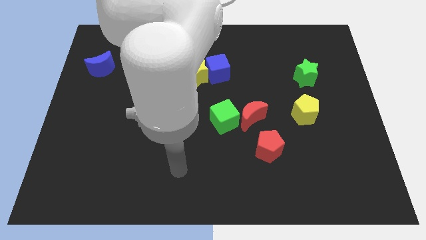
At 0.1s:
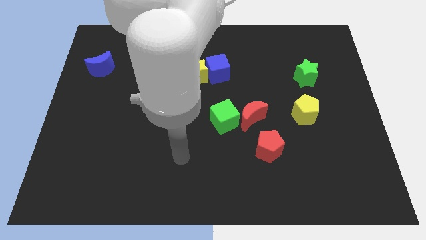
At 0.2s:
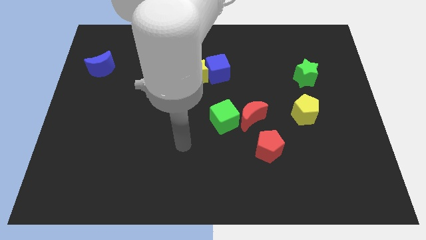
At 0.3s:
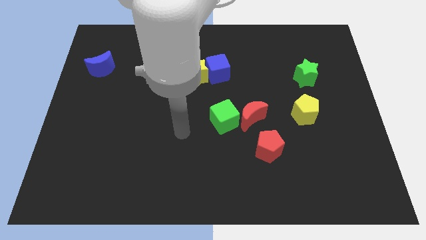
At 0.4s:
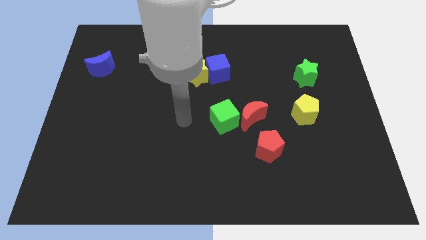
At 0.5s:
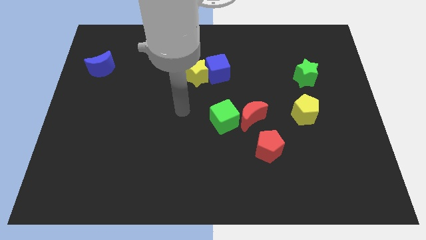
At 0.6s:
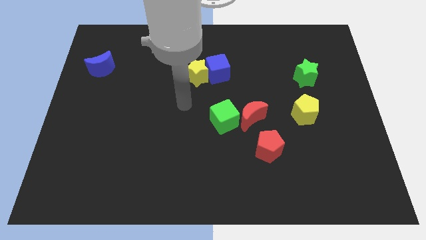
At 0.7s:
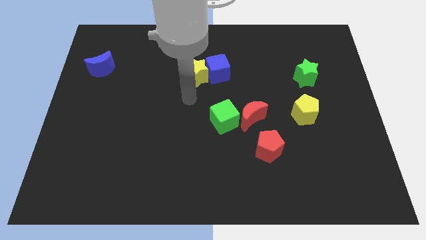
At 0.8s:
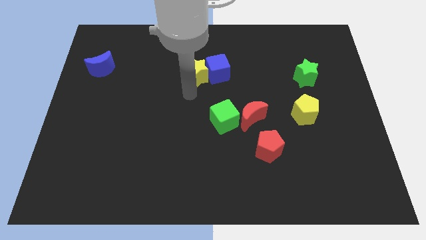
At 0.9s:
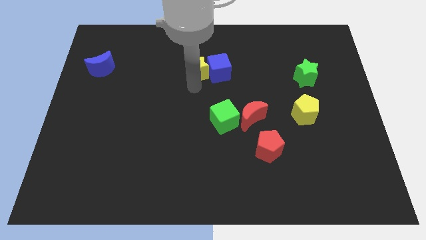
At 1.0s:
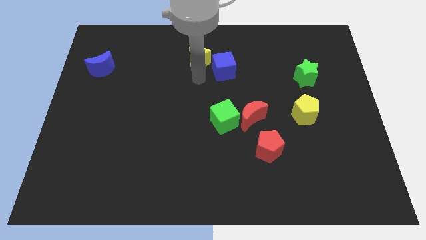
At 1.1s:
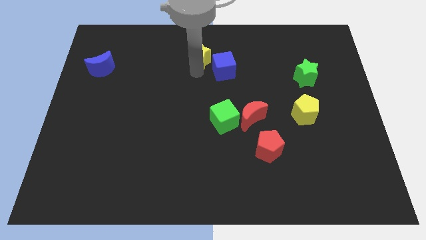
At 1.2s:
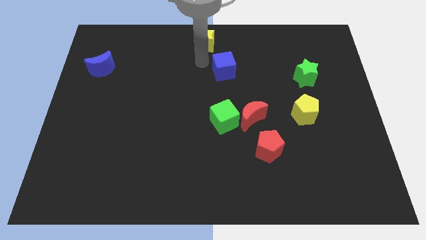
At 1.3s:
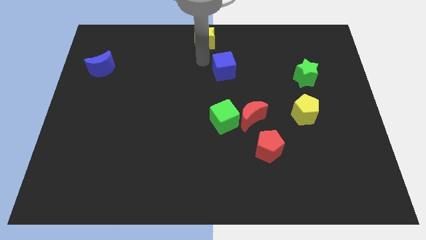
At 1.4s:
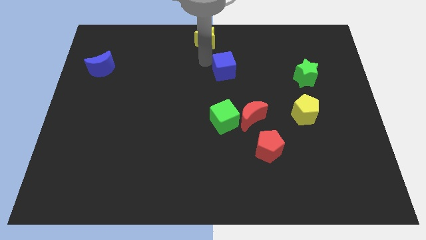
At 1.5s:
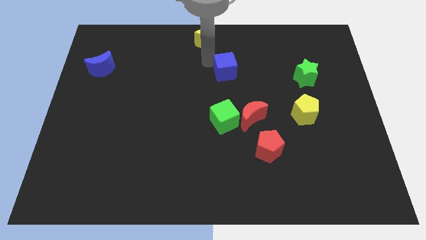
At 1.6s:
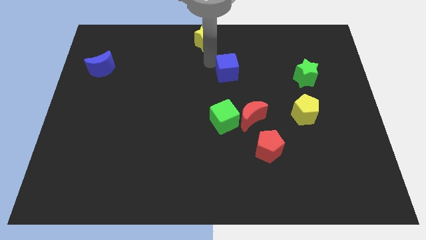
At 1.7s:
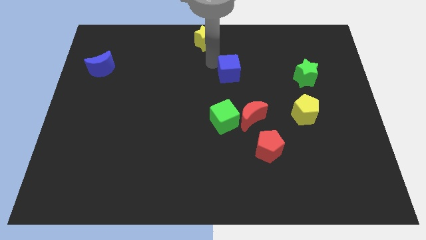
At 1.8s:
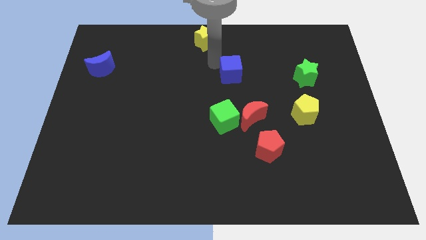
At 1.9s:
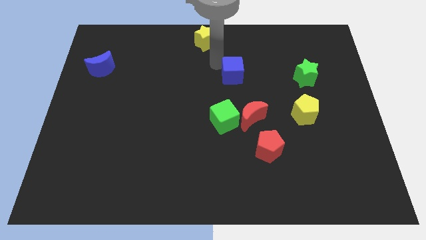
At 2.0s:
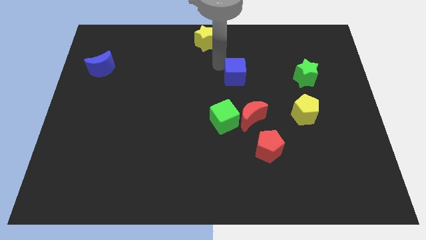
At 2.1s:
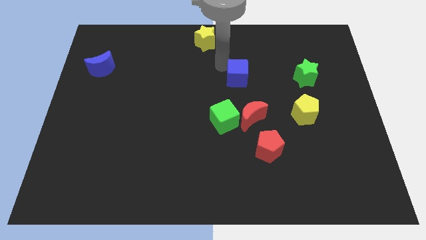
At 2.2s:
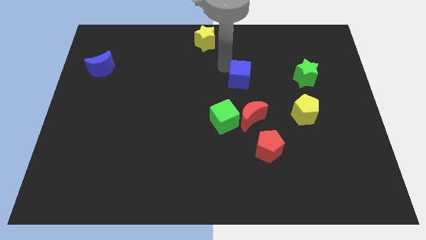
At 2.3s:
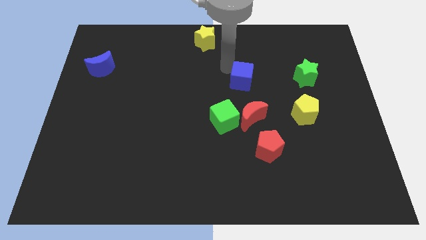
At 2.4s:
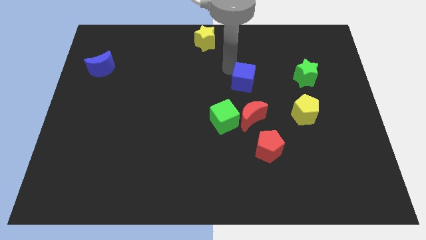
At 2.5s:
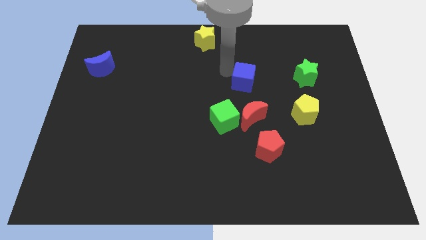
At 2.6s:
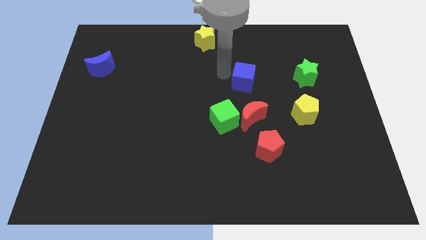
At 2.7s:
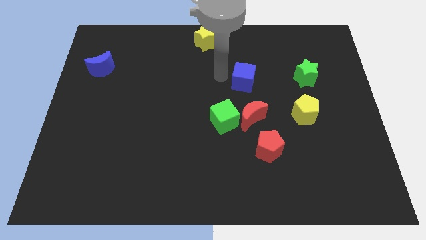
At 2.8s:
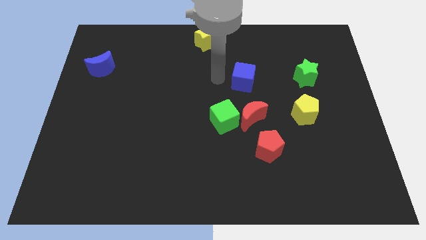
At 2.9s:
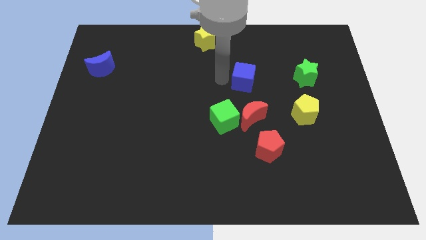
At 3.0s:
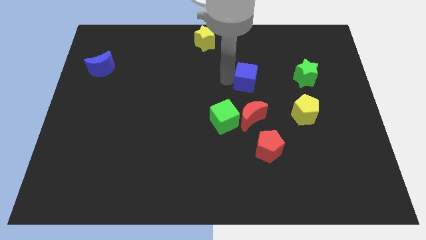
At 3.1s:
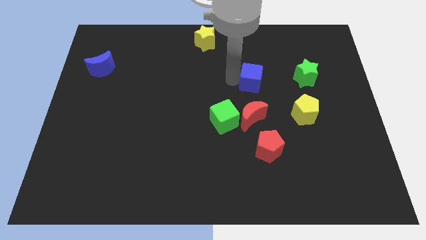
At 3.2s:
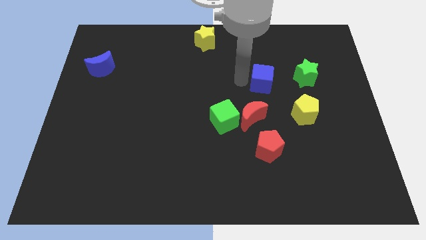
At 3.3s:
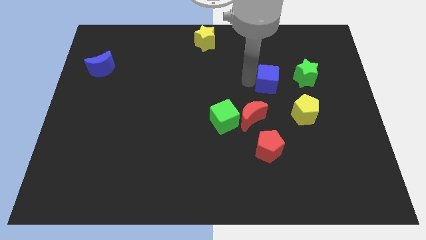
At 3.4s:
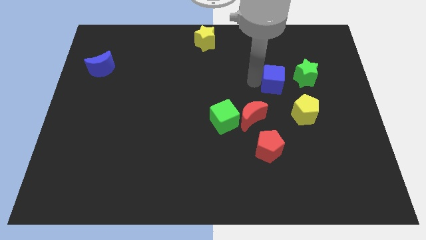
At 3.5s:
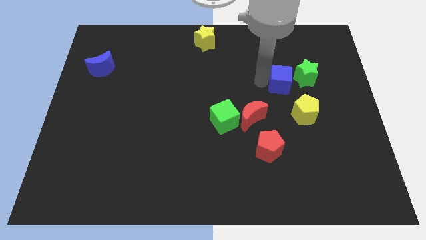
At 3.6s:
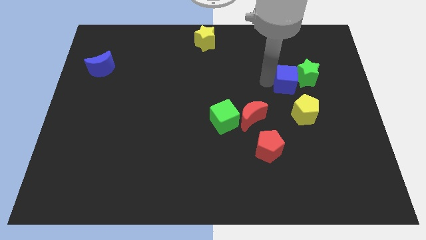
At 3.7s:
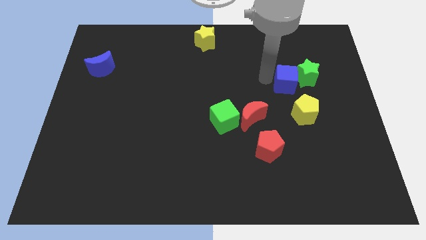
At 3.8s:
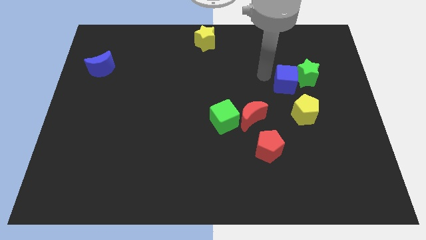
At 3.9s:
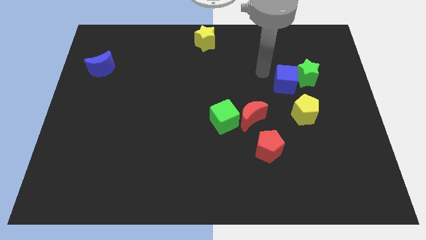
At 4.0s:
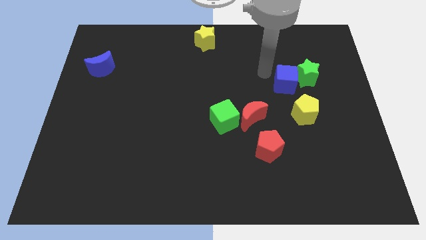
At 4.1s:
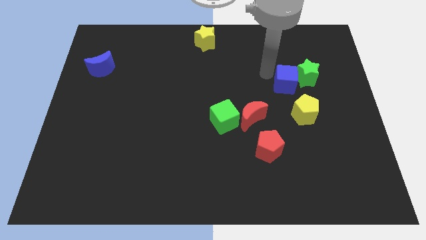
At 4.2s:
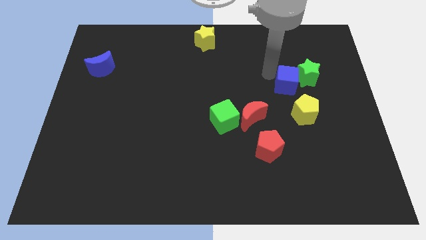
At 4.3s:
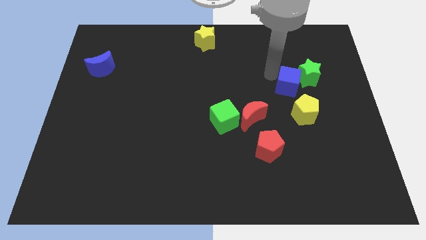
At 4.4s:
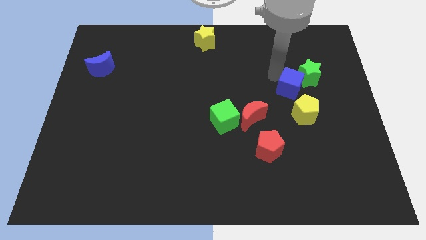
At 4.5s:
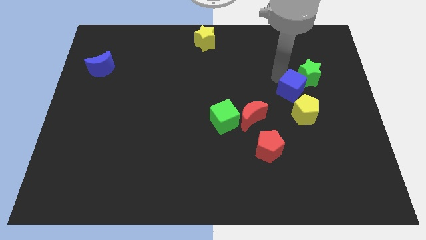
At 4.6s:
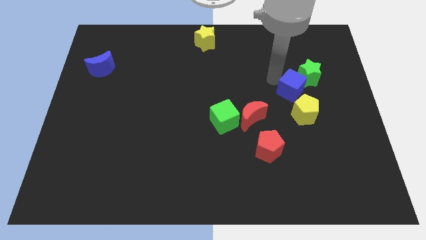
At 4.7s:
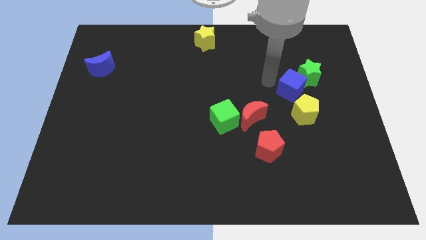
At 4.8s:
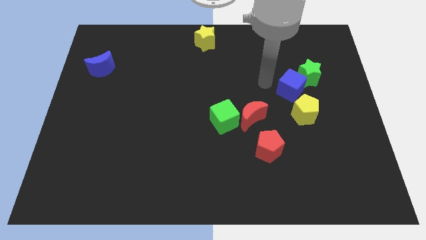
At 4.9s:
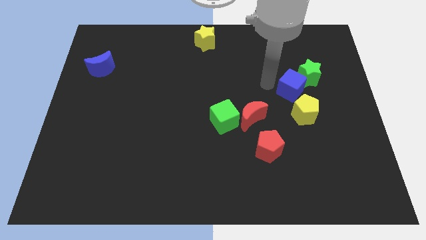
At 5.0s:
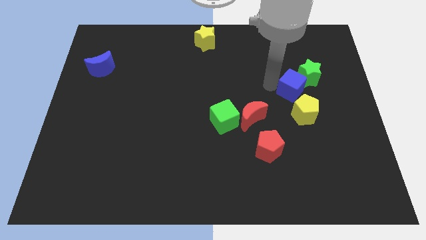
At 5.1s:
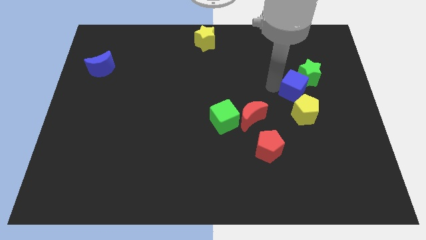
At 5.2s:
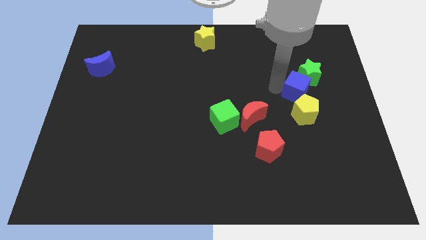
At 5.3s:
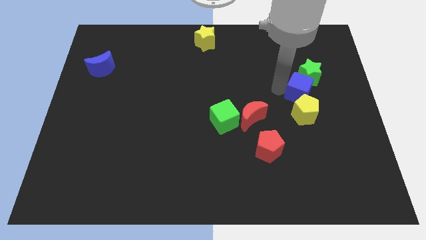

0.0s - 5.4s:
put the blue cube to the top right of the yellow pentagon

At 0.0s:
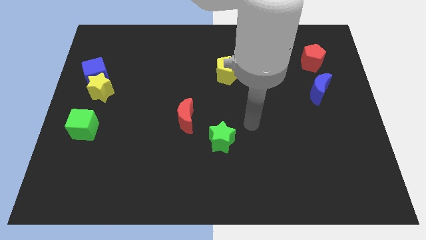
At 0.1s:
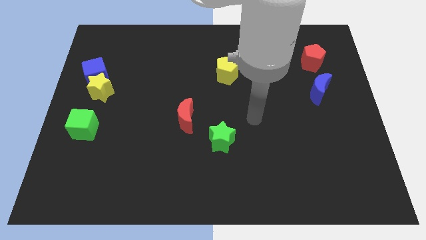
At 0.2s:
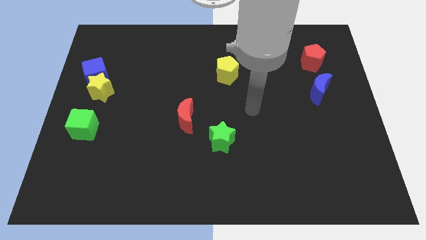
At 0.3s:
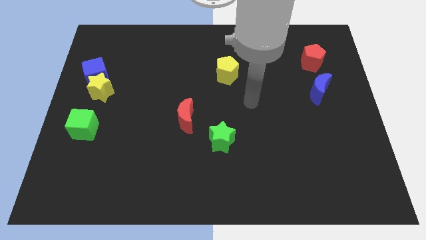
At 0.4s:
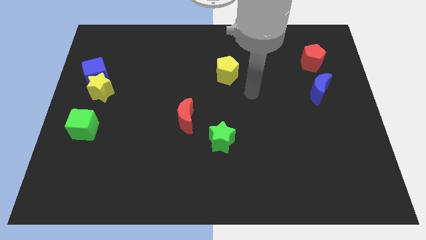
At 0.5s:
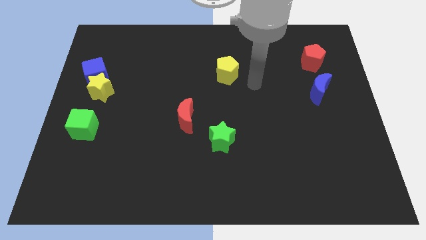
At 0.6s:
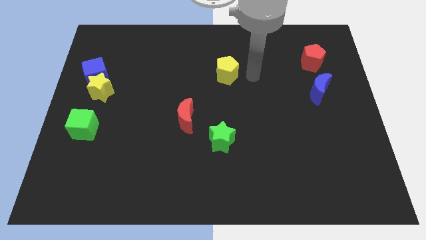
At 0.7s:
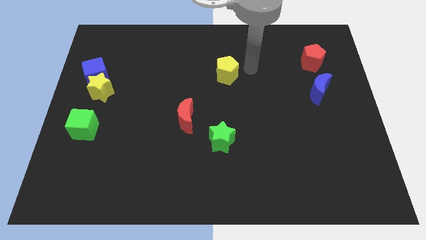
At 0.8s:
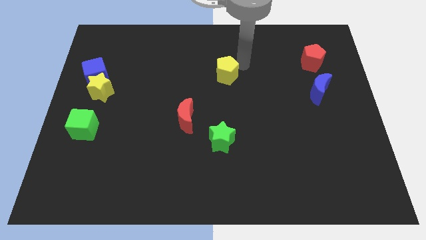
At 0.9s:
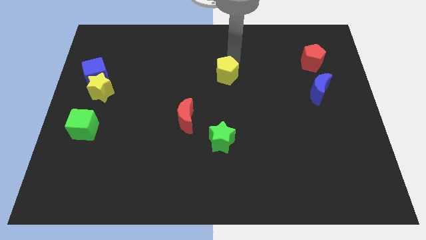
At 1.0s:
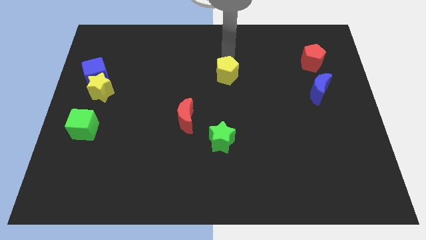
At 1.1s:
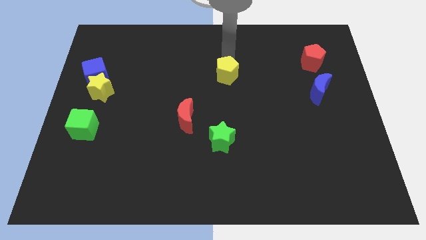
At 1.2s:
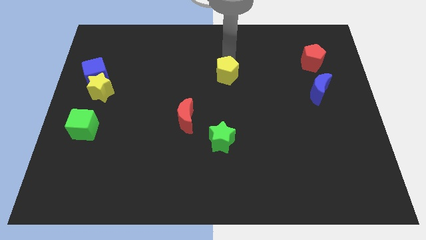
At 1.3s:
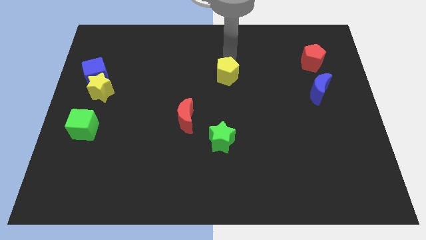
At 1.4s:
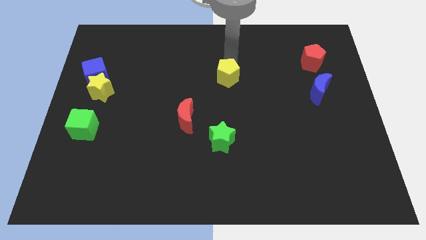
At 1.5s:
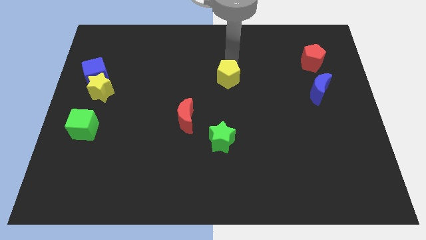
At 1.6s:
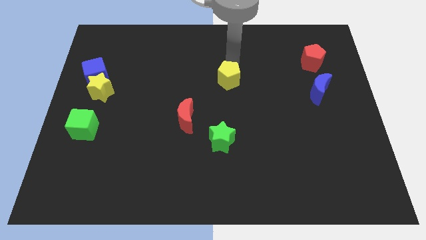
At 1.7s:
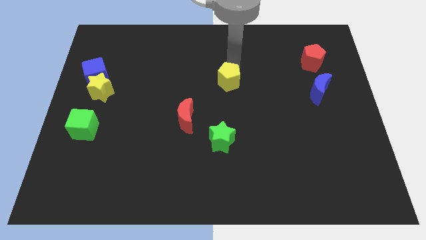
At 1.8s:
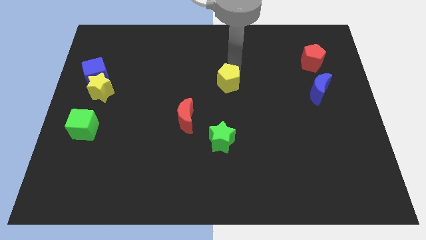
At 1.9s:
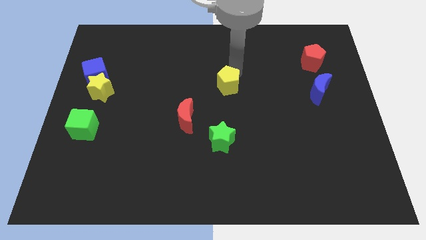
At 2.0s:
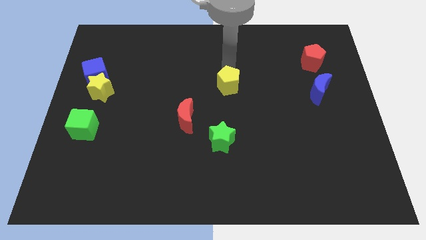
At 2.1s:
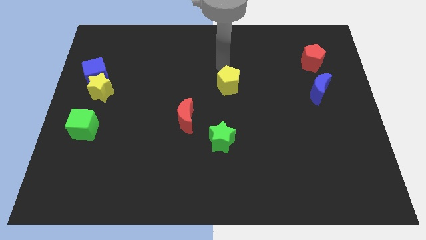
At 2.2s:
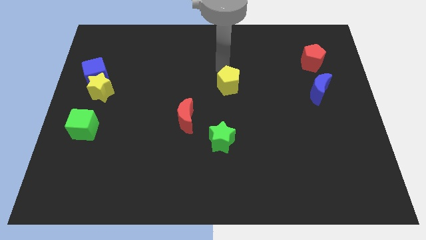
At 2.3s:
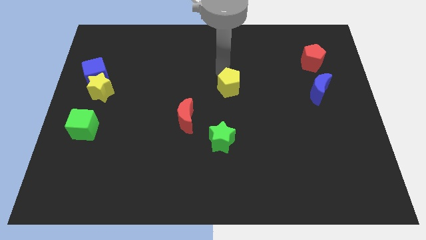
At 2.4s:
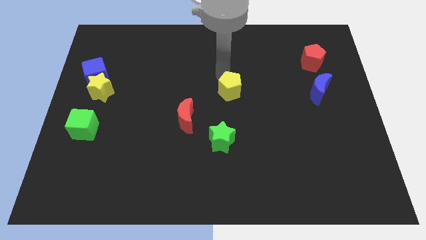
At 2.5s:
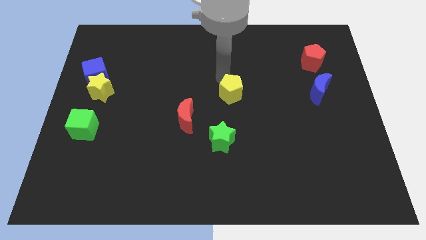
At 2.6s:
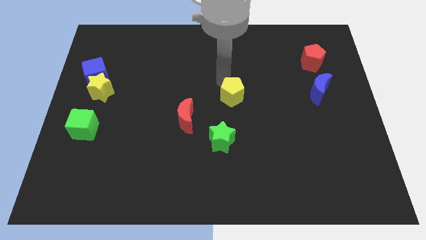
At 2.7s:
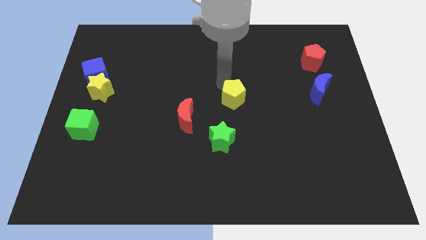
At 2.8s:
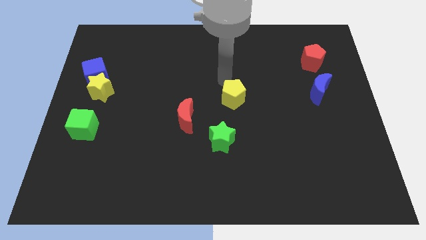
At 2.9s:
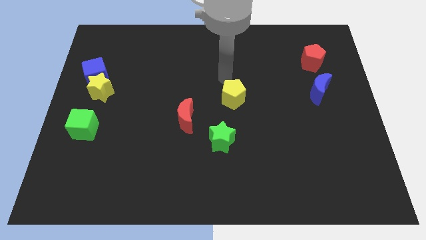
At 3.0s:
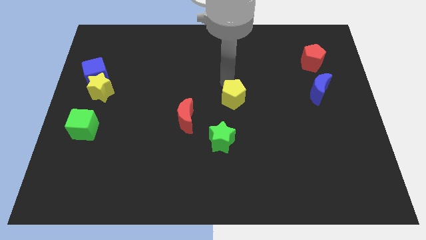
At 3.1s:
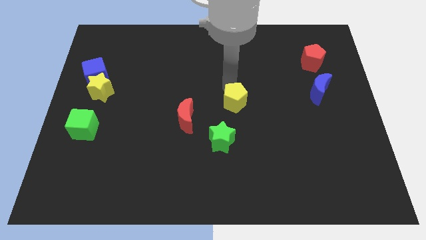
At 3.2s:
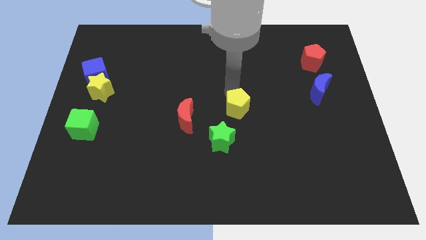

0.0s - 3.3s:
move the yellow pentagon to the top right side of the green star
